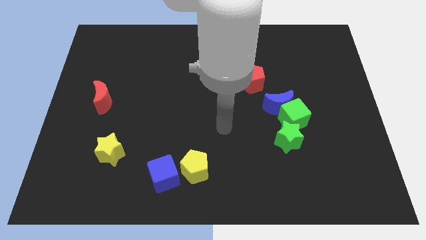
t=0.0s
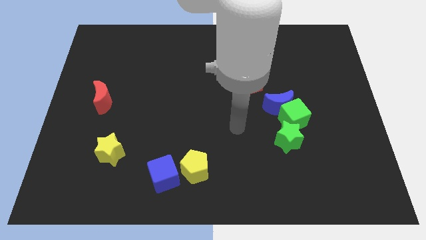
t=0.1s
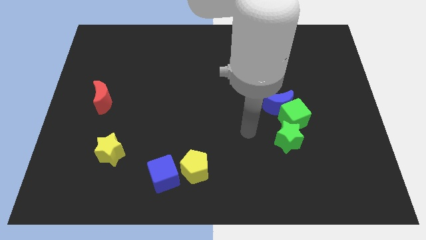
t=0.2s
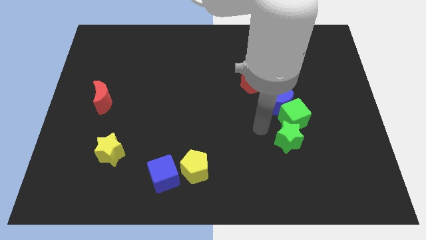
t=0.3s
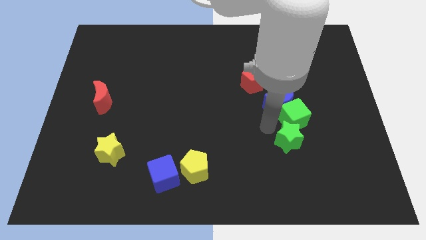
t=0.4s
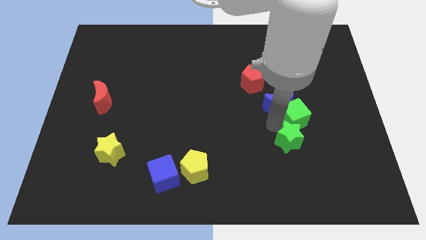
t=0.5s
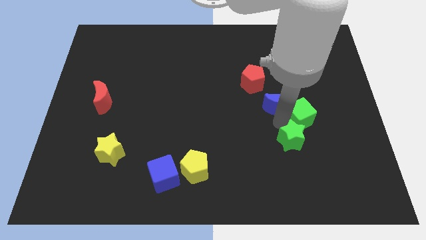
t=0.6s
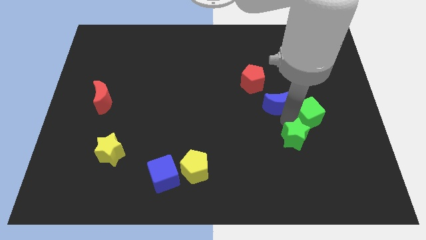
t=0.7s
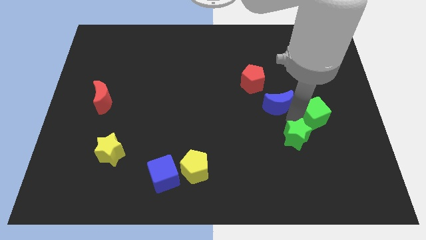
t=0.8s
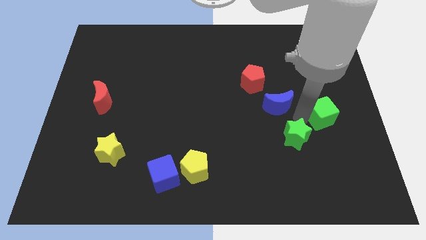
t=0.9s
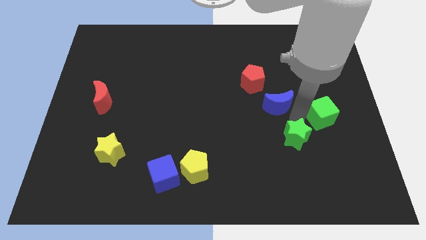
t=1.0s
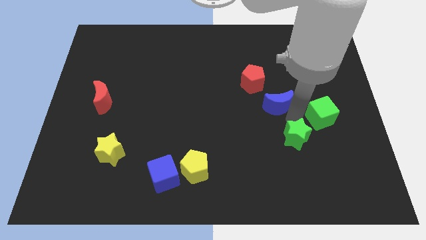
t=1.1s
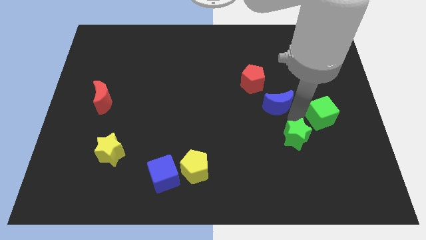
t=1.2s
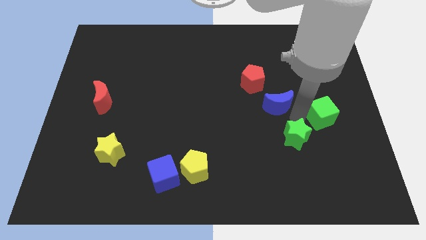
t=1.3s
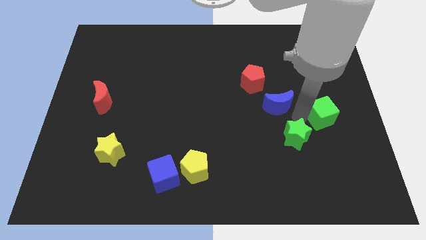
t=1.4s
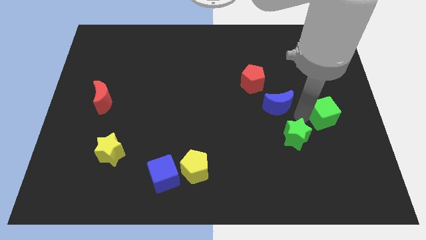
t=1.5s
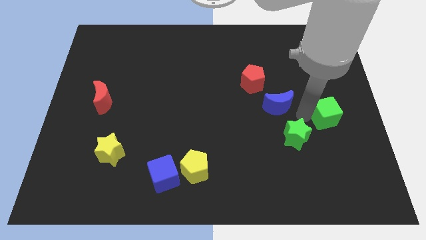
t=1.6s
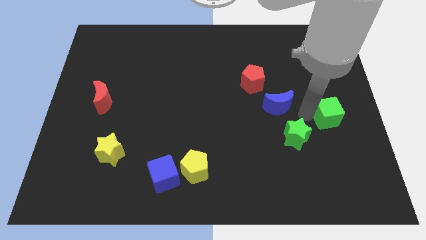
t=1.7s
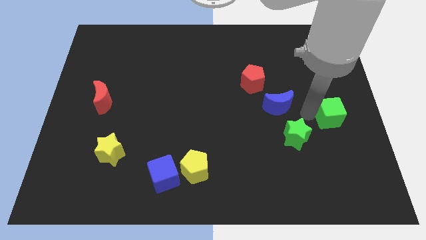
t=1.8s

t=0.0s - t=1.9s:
move the green cube away from the blue moon and green star

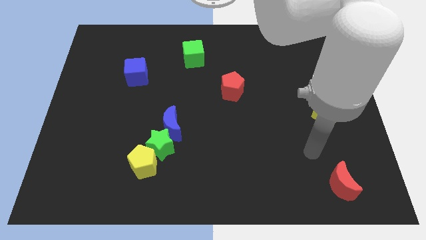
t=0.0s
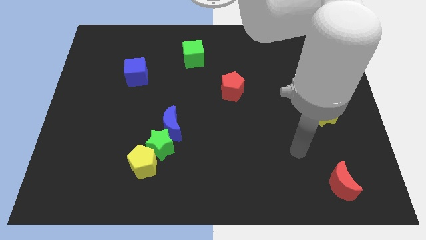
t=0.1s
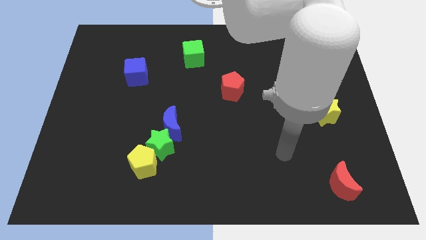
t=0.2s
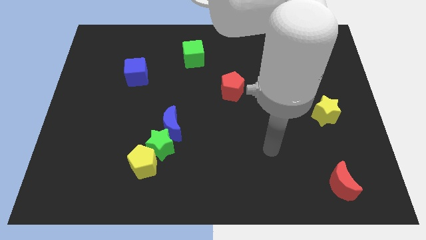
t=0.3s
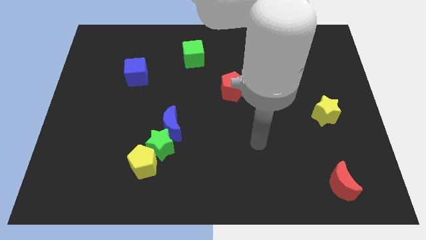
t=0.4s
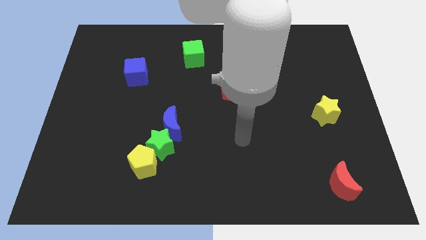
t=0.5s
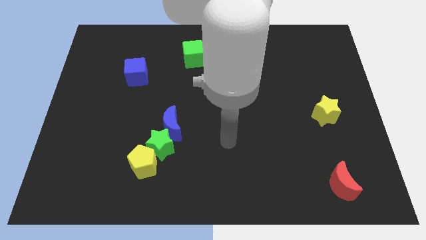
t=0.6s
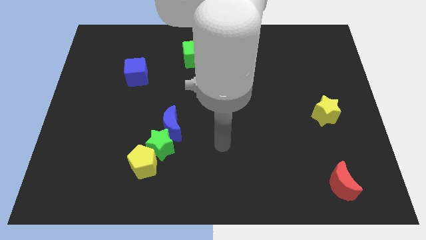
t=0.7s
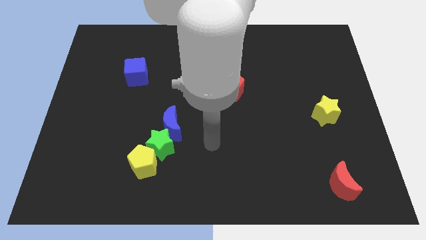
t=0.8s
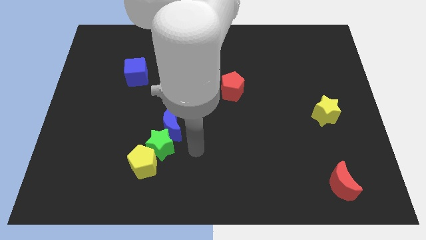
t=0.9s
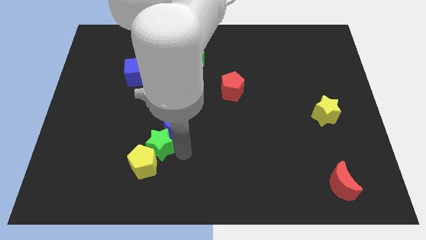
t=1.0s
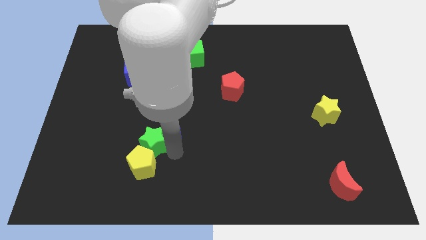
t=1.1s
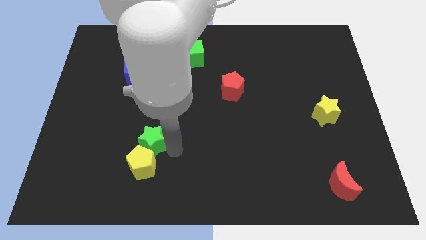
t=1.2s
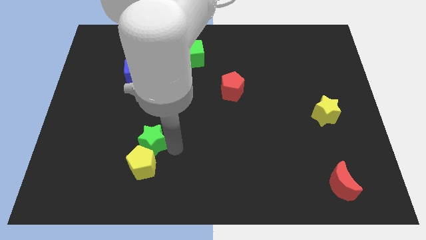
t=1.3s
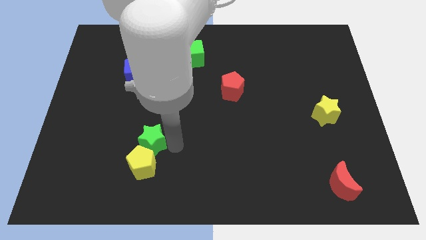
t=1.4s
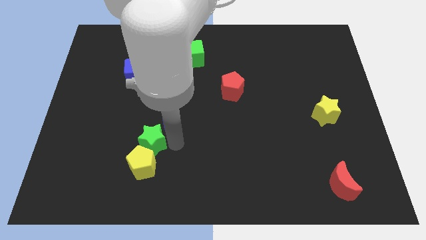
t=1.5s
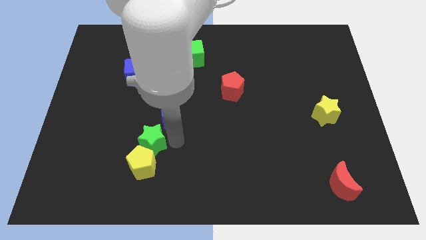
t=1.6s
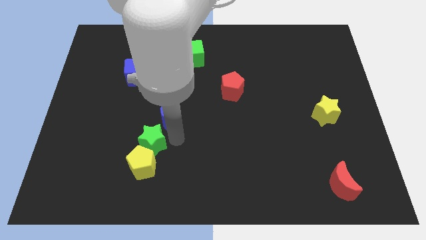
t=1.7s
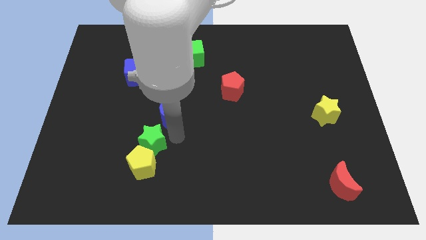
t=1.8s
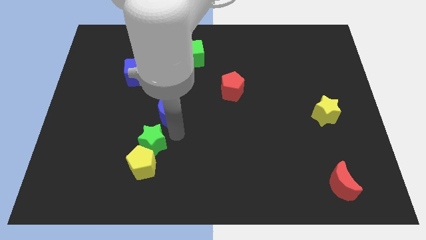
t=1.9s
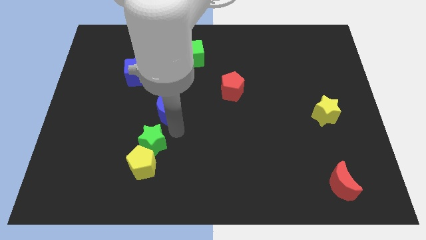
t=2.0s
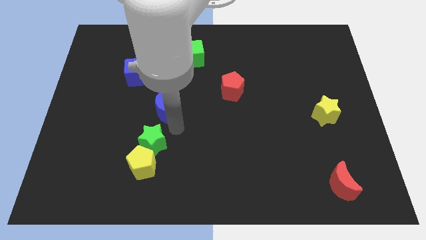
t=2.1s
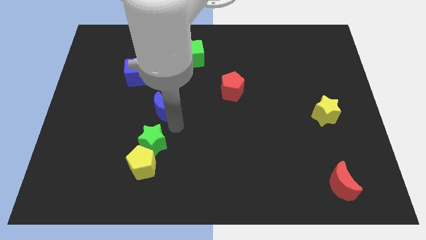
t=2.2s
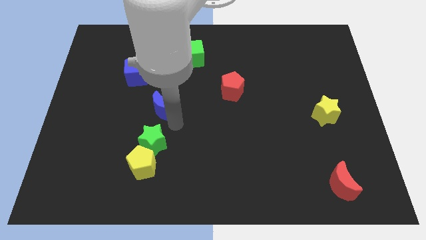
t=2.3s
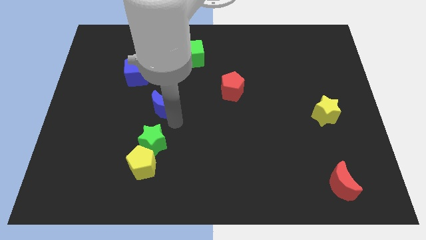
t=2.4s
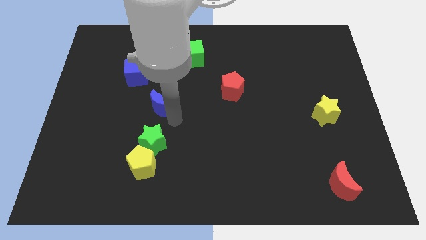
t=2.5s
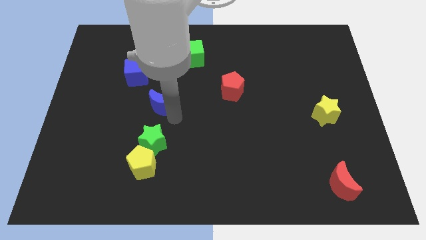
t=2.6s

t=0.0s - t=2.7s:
separate the blue moon from the green star

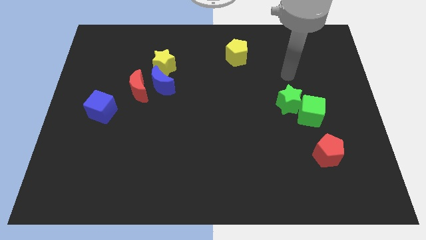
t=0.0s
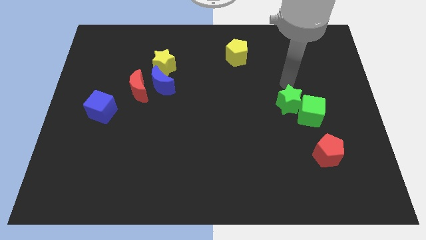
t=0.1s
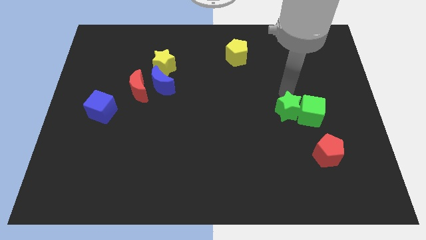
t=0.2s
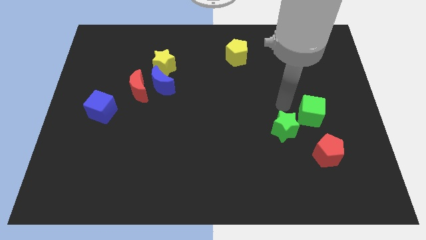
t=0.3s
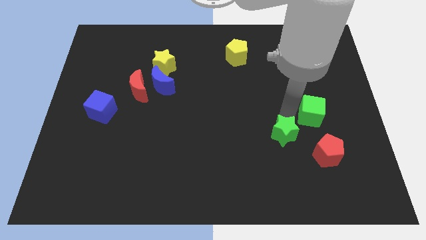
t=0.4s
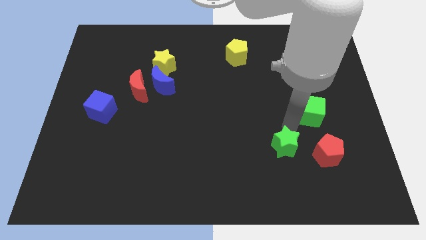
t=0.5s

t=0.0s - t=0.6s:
move the green cube away from the green star

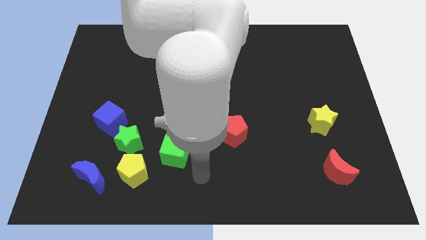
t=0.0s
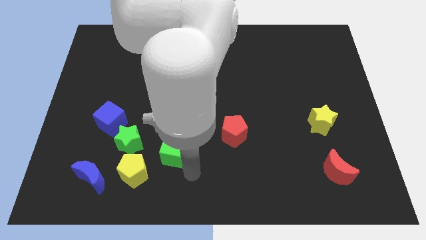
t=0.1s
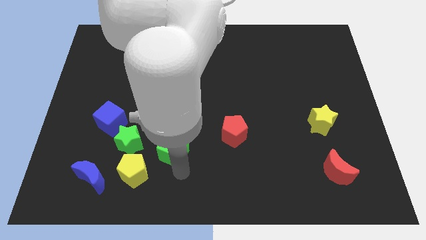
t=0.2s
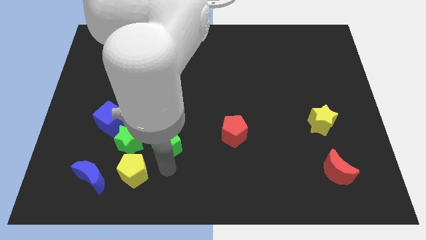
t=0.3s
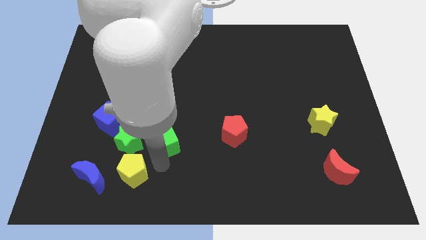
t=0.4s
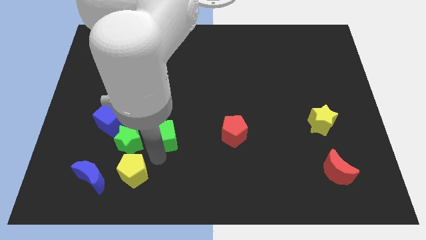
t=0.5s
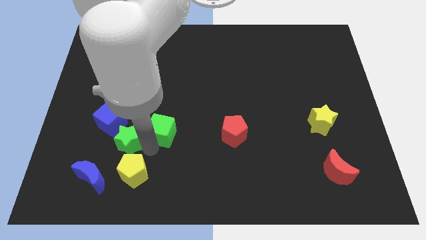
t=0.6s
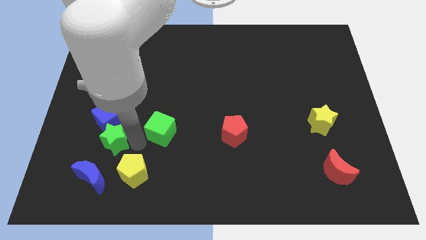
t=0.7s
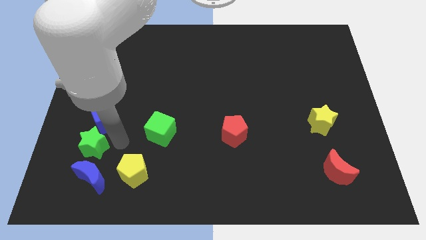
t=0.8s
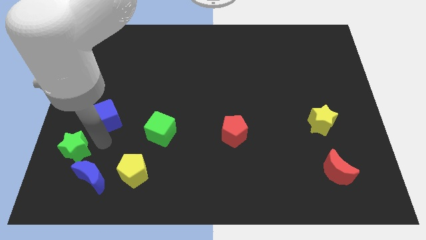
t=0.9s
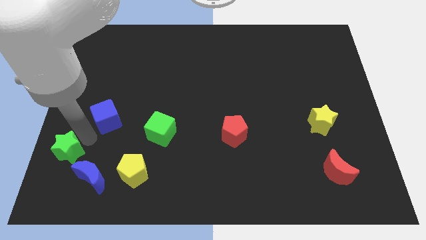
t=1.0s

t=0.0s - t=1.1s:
pull the blue cube apart from the green star

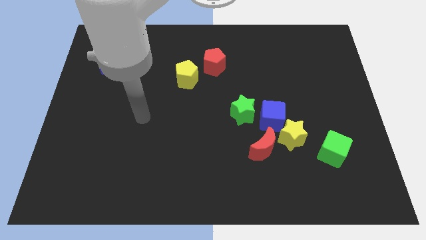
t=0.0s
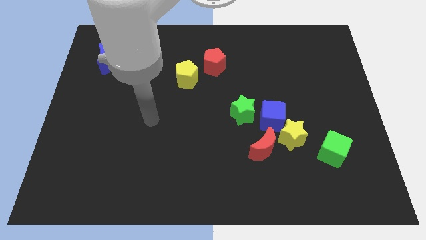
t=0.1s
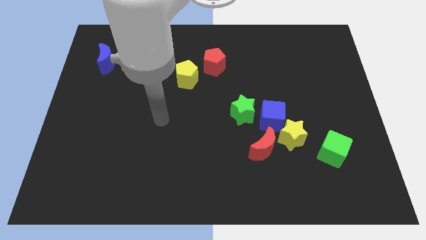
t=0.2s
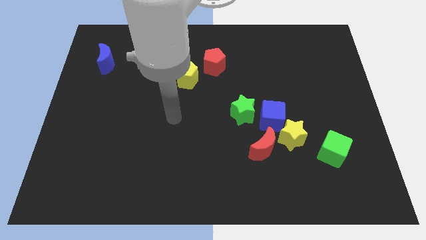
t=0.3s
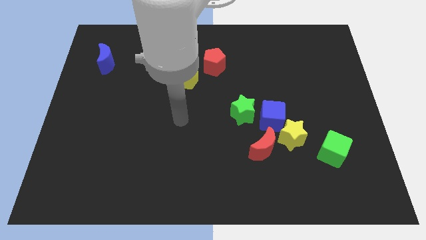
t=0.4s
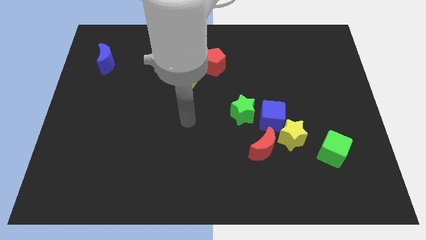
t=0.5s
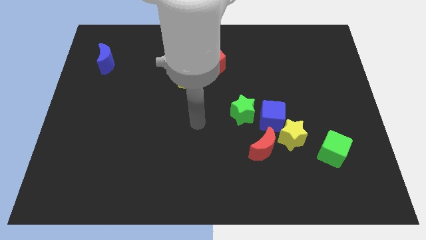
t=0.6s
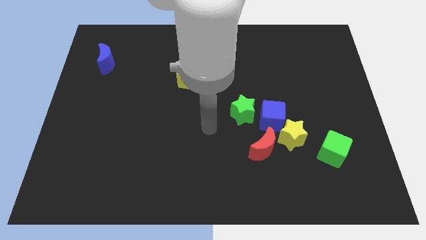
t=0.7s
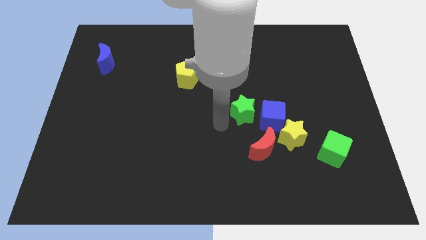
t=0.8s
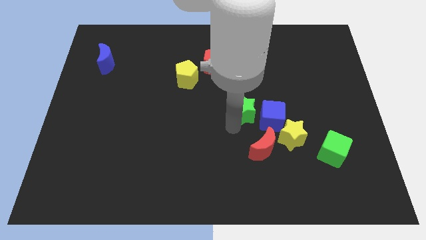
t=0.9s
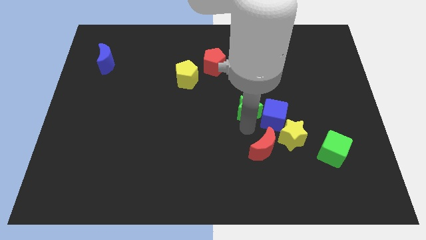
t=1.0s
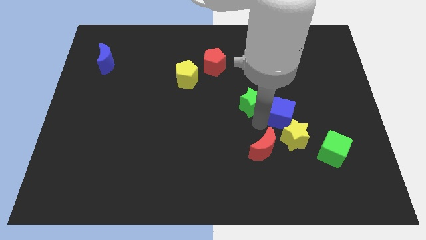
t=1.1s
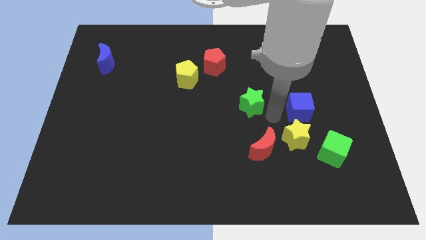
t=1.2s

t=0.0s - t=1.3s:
move the green star away from the blue cube

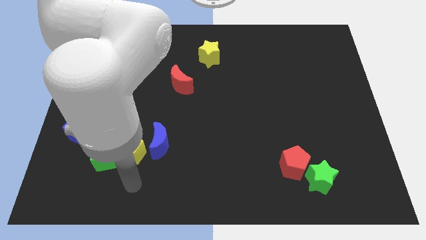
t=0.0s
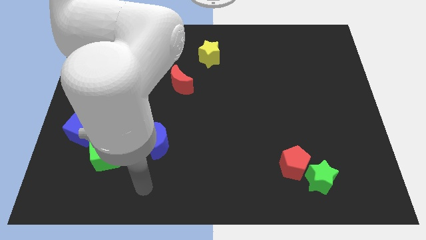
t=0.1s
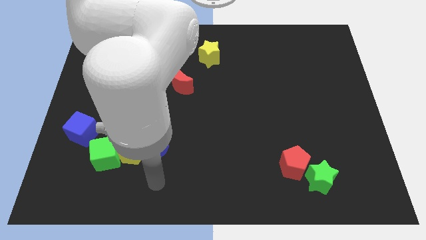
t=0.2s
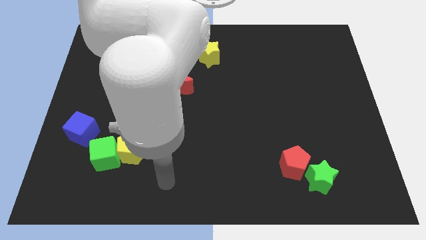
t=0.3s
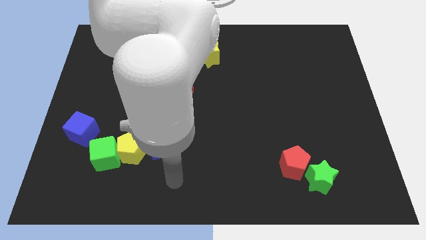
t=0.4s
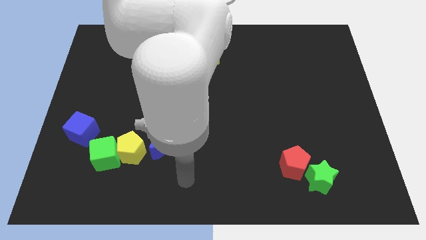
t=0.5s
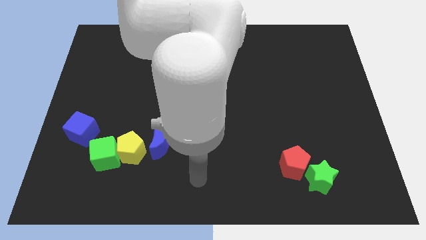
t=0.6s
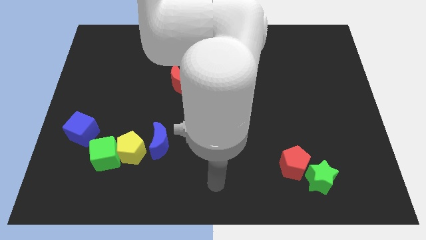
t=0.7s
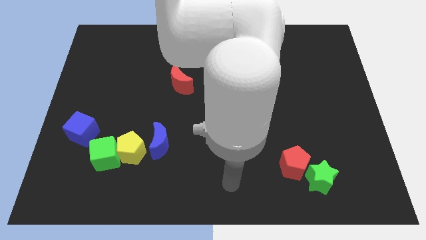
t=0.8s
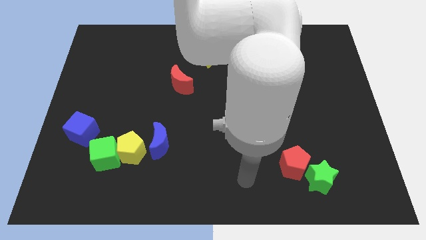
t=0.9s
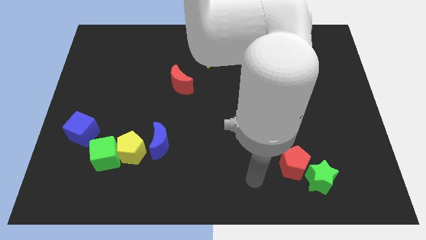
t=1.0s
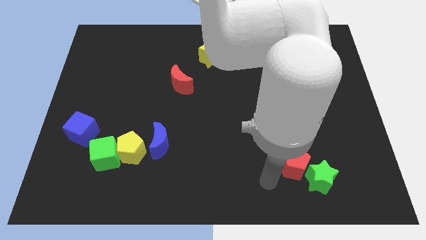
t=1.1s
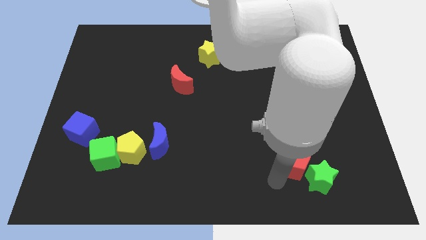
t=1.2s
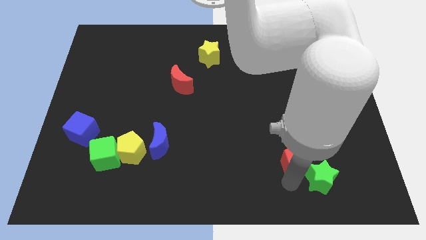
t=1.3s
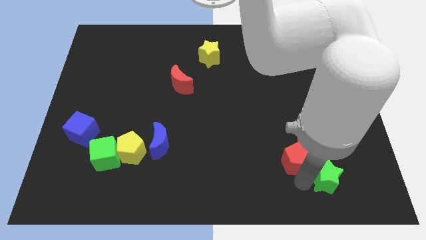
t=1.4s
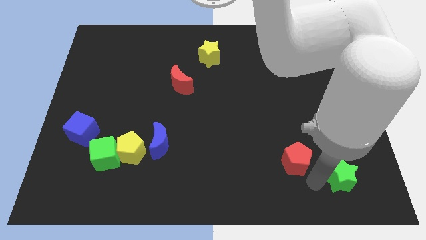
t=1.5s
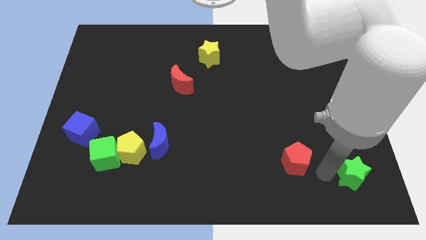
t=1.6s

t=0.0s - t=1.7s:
move the red pentagon away from the green star
